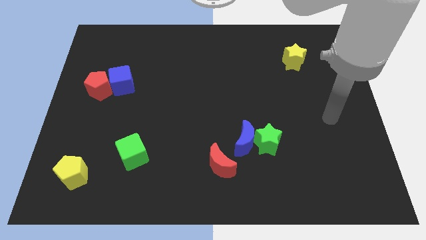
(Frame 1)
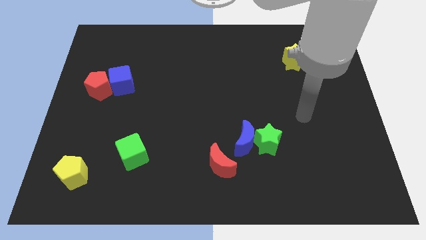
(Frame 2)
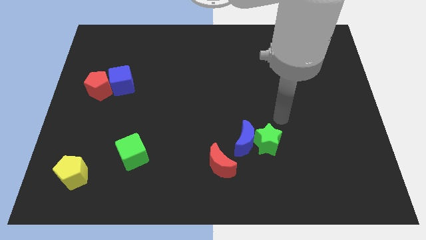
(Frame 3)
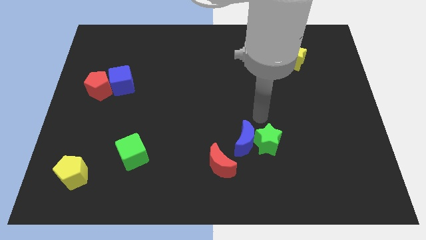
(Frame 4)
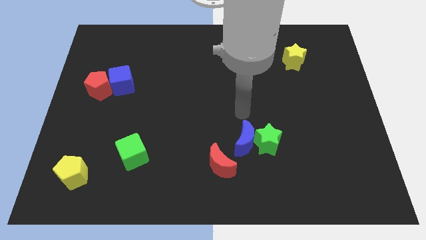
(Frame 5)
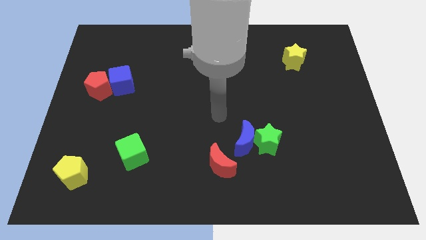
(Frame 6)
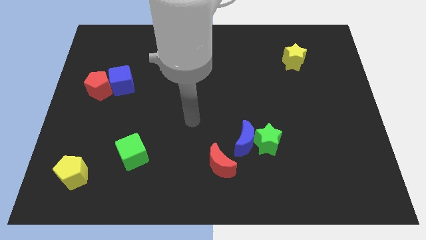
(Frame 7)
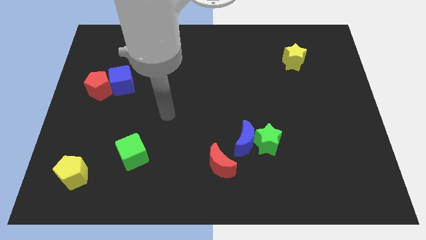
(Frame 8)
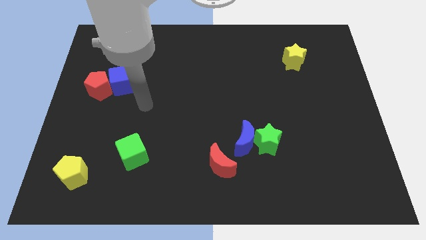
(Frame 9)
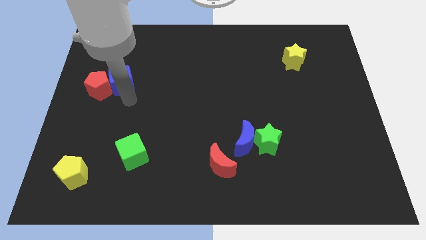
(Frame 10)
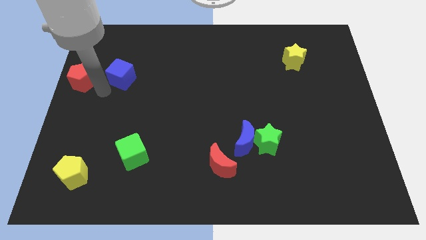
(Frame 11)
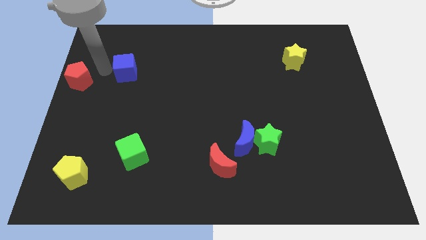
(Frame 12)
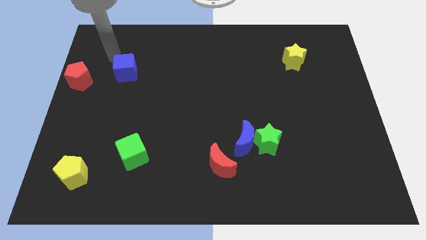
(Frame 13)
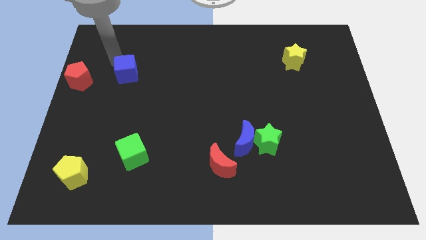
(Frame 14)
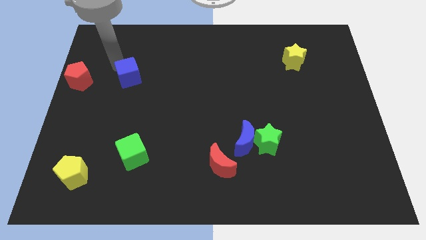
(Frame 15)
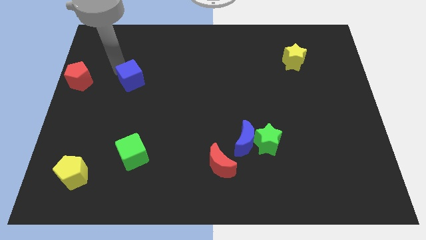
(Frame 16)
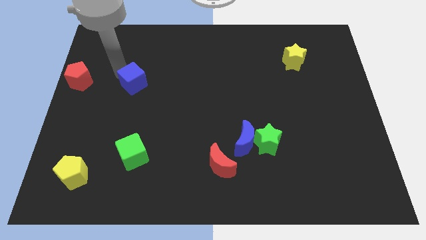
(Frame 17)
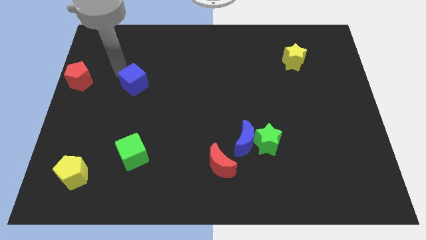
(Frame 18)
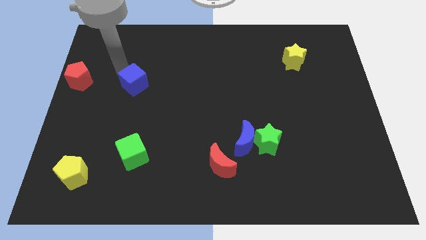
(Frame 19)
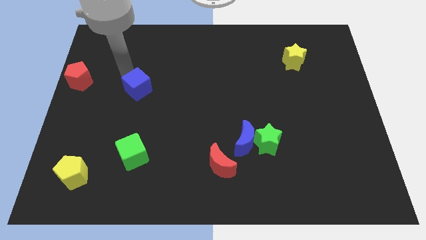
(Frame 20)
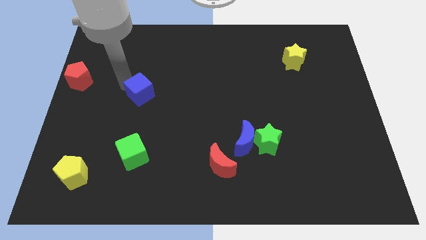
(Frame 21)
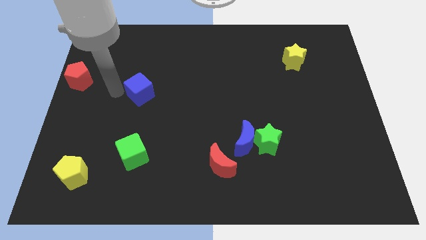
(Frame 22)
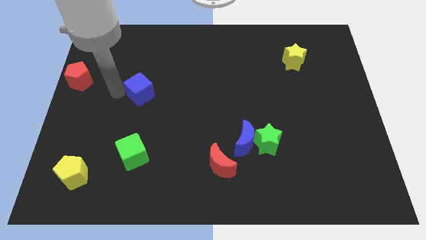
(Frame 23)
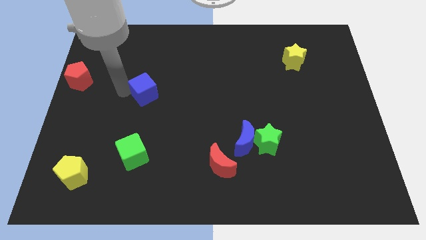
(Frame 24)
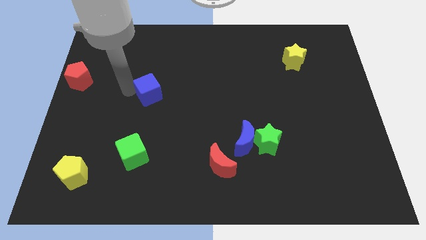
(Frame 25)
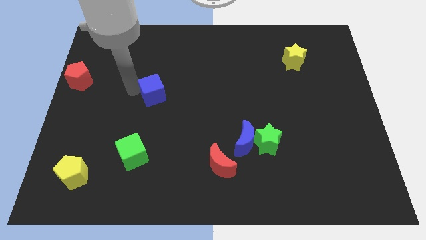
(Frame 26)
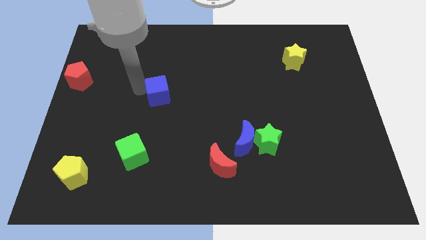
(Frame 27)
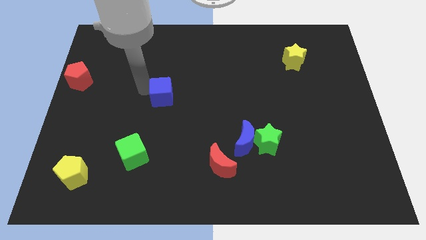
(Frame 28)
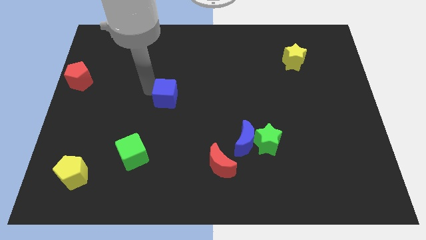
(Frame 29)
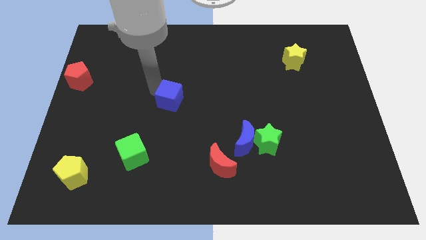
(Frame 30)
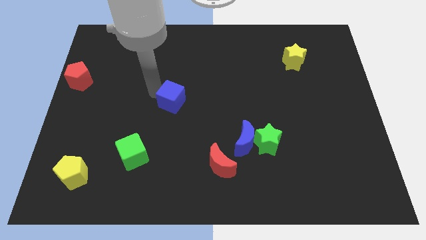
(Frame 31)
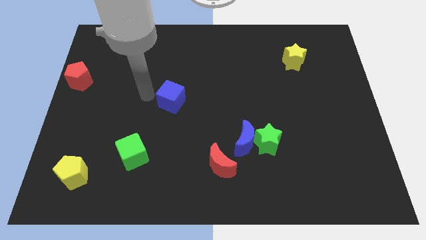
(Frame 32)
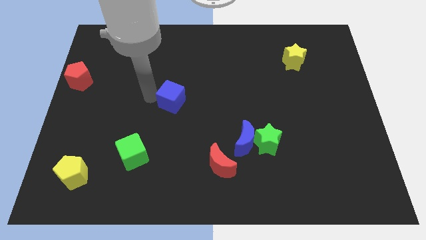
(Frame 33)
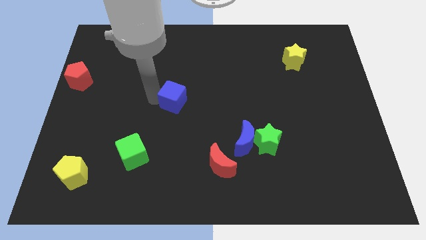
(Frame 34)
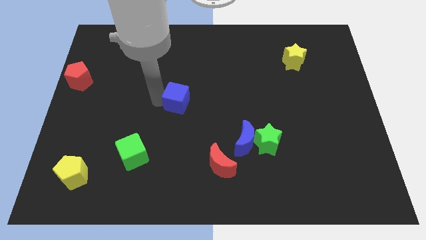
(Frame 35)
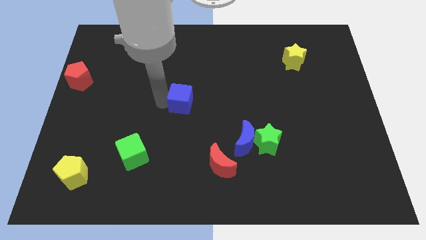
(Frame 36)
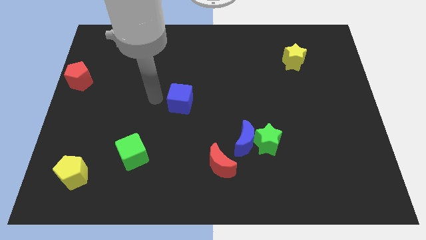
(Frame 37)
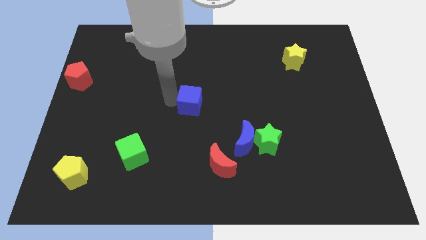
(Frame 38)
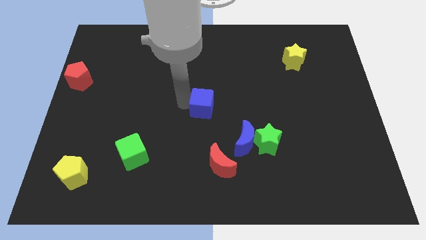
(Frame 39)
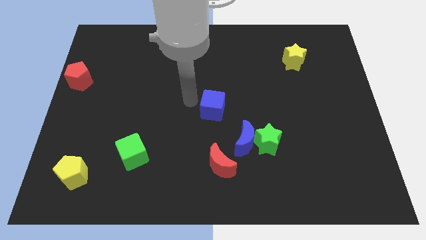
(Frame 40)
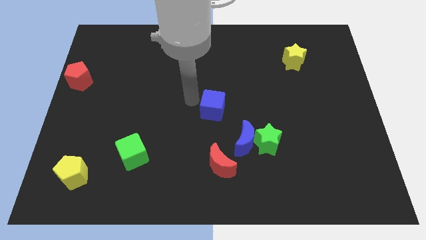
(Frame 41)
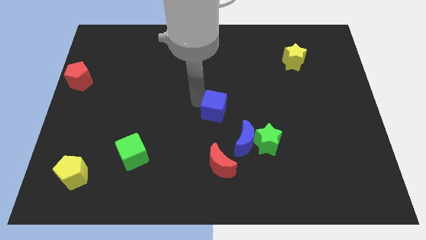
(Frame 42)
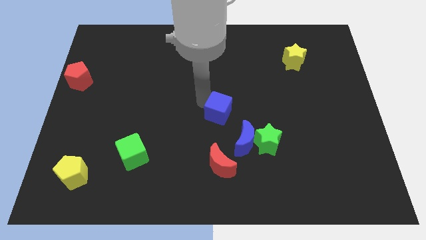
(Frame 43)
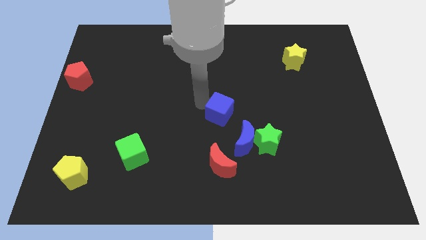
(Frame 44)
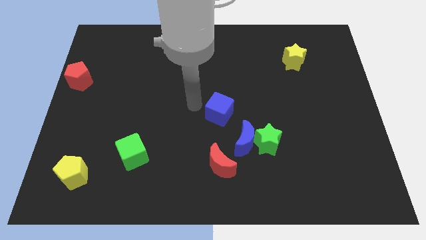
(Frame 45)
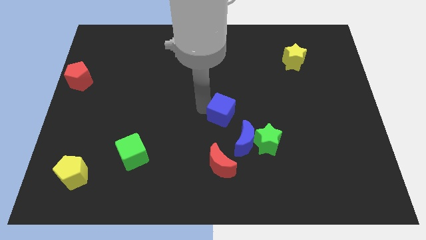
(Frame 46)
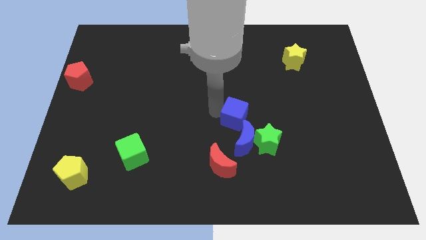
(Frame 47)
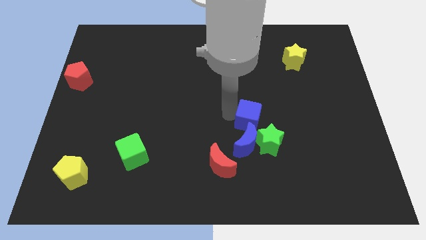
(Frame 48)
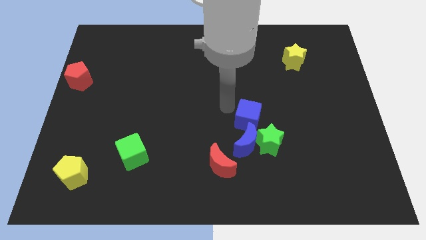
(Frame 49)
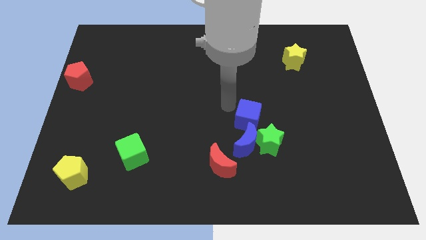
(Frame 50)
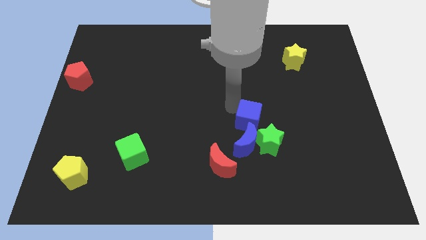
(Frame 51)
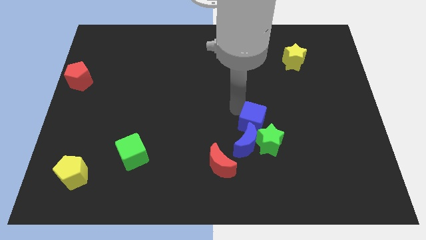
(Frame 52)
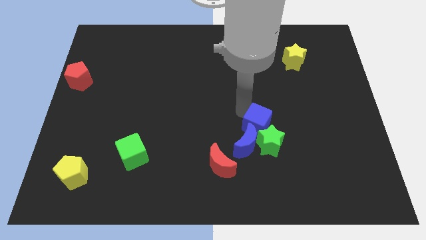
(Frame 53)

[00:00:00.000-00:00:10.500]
slide the blue cube towards the green star

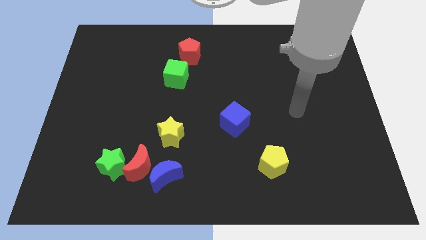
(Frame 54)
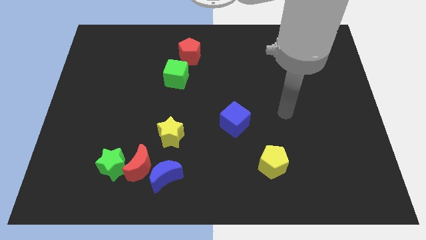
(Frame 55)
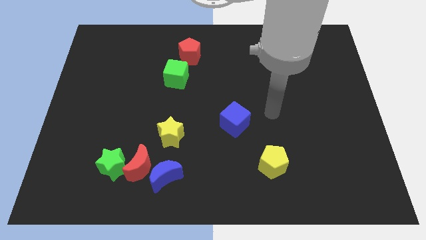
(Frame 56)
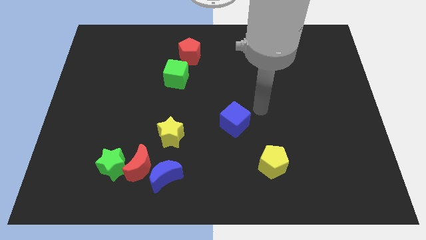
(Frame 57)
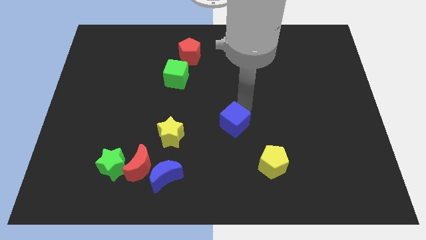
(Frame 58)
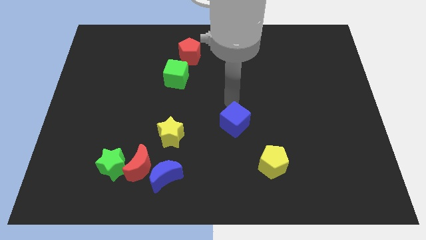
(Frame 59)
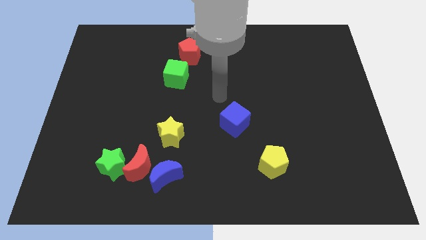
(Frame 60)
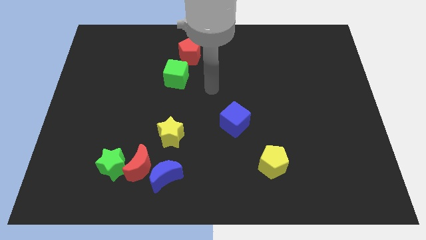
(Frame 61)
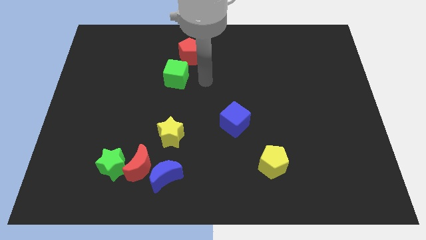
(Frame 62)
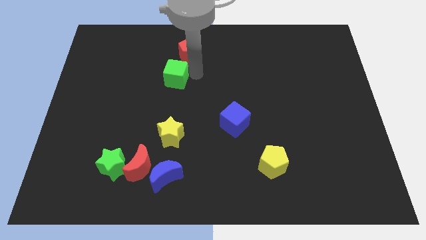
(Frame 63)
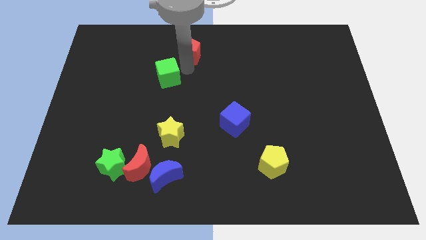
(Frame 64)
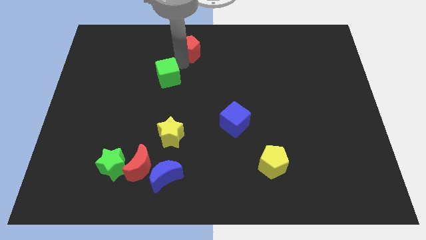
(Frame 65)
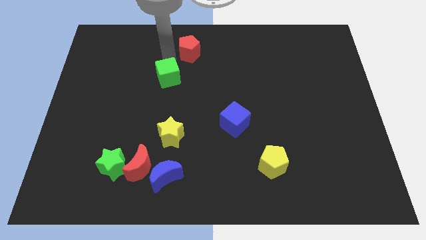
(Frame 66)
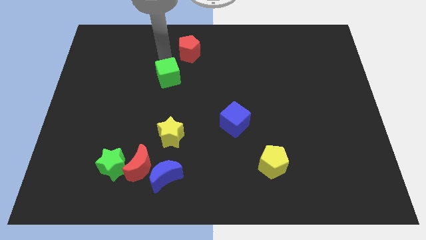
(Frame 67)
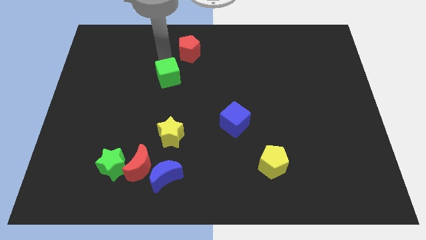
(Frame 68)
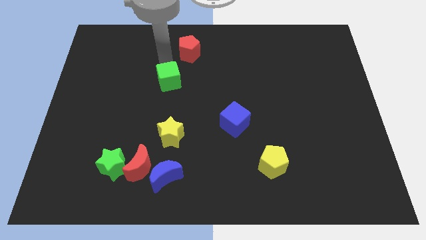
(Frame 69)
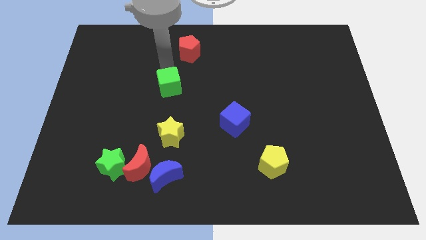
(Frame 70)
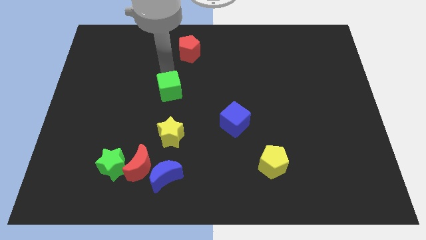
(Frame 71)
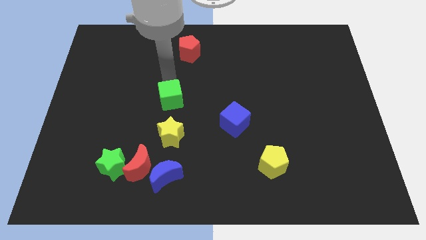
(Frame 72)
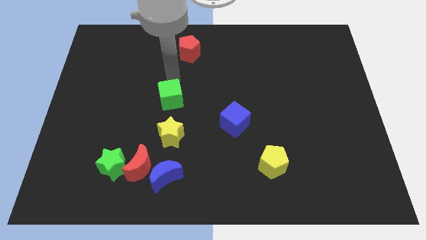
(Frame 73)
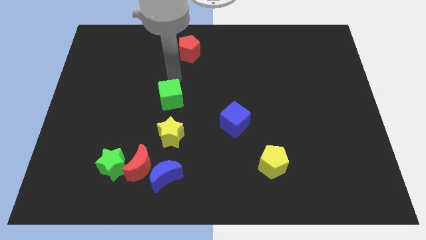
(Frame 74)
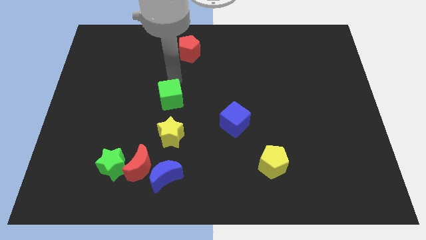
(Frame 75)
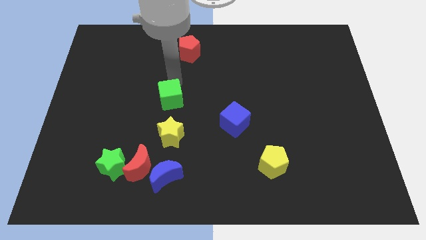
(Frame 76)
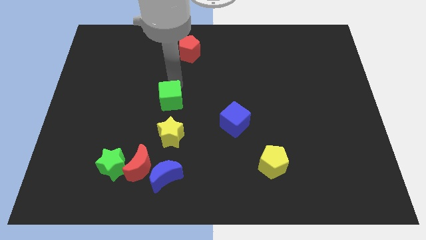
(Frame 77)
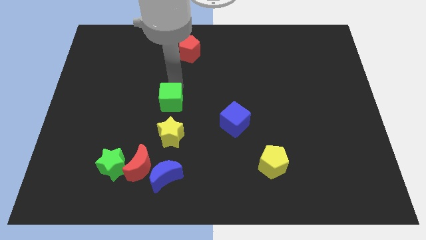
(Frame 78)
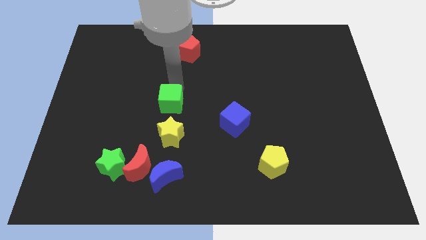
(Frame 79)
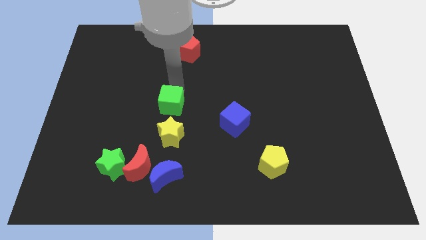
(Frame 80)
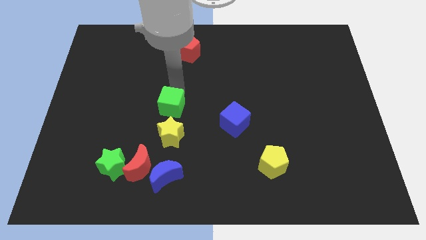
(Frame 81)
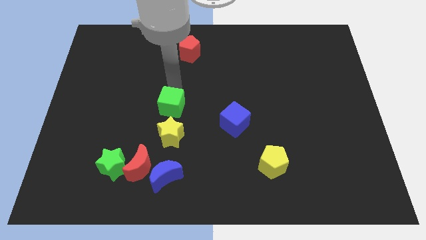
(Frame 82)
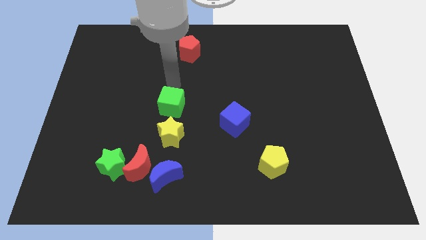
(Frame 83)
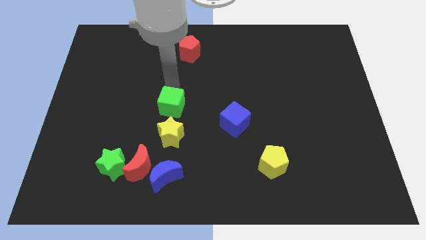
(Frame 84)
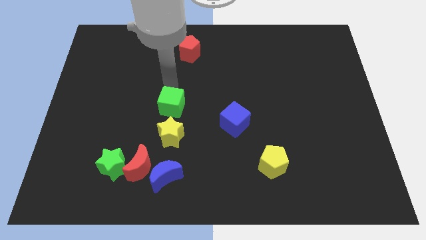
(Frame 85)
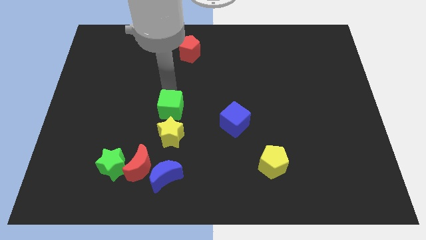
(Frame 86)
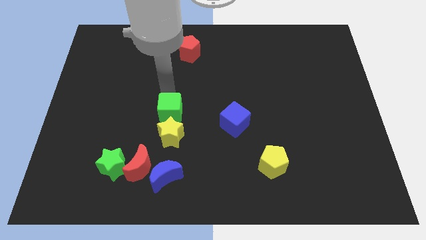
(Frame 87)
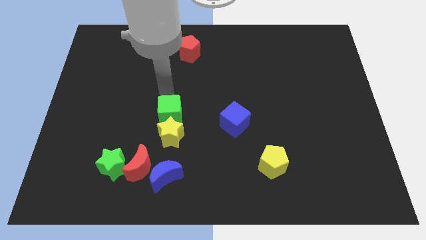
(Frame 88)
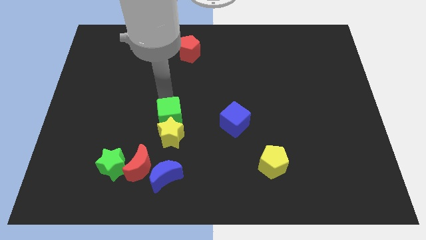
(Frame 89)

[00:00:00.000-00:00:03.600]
move the green cube towards the yellow star
